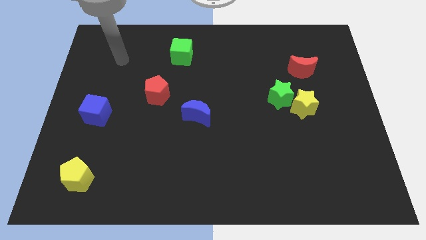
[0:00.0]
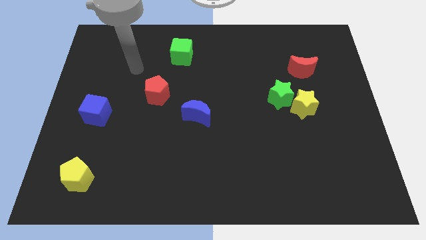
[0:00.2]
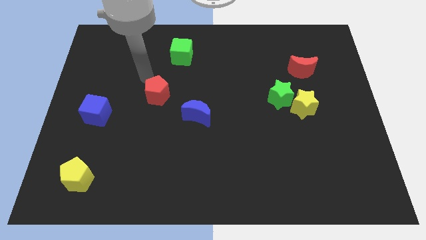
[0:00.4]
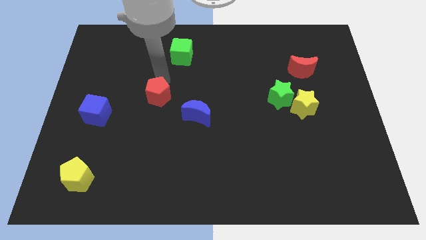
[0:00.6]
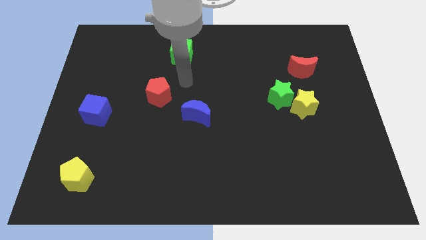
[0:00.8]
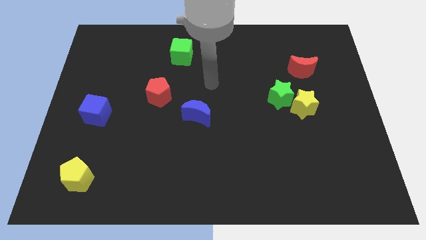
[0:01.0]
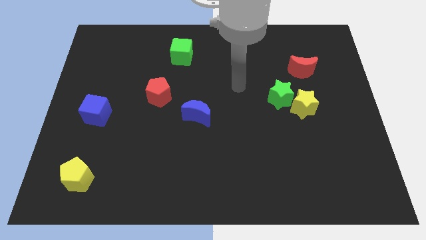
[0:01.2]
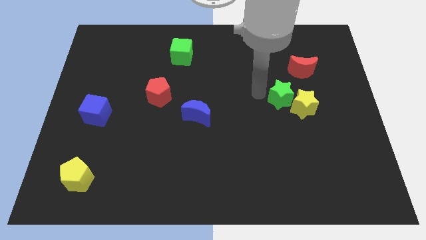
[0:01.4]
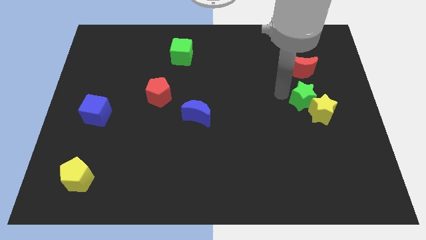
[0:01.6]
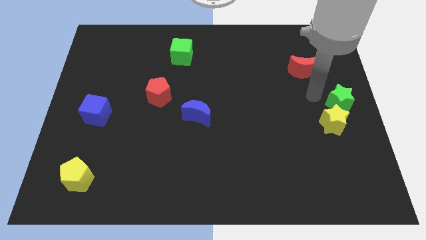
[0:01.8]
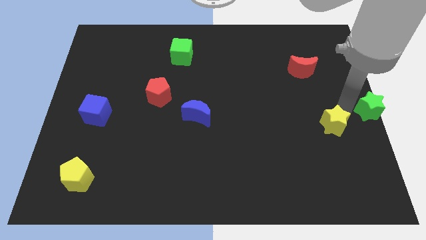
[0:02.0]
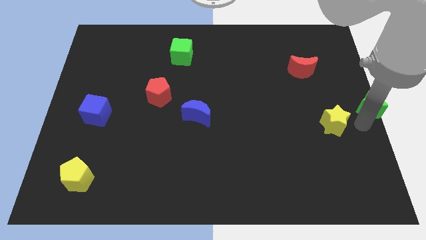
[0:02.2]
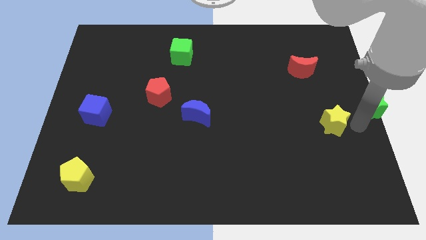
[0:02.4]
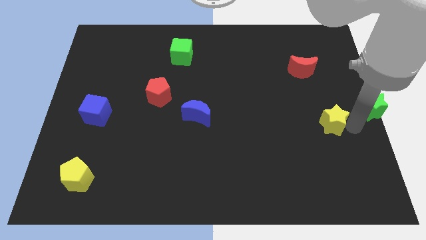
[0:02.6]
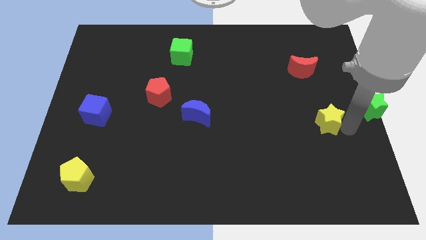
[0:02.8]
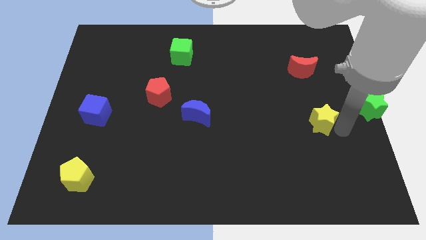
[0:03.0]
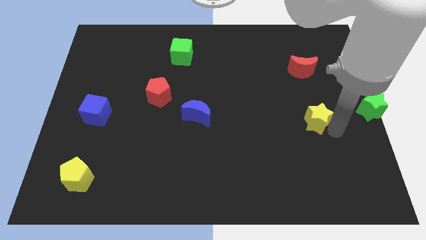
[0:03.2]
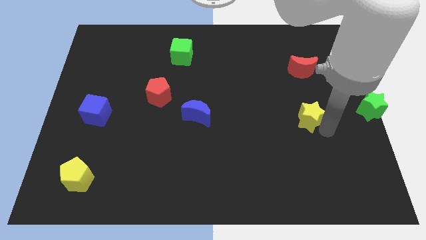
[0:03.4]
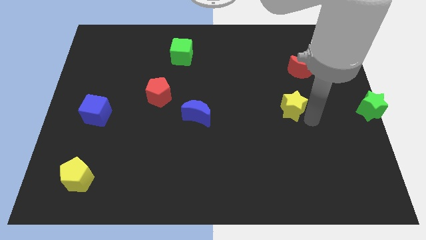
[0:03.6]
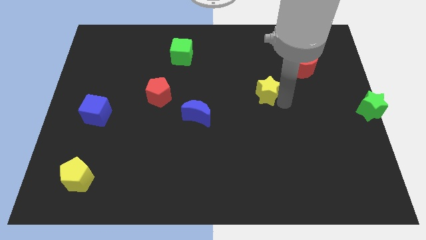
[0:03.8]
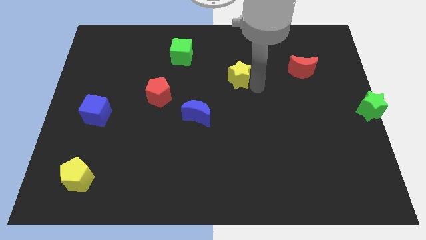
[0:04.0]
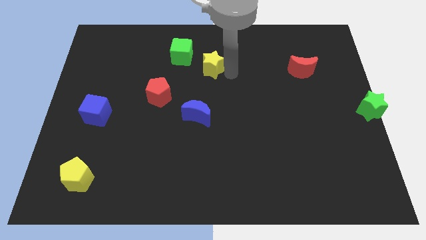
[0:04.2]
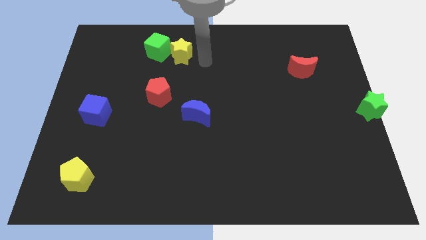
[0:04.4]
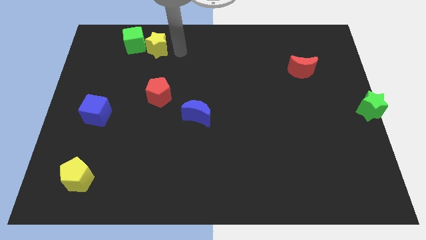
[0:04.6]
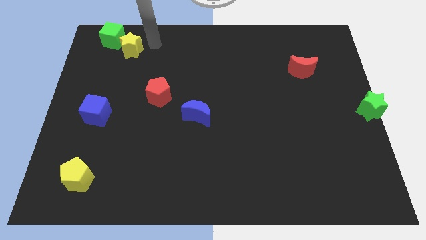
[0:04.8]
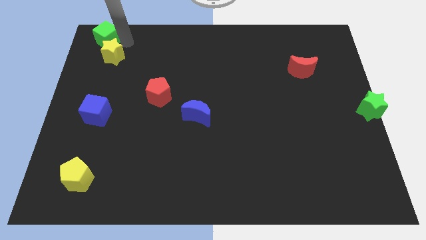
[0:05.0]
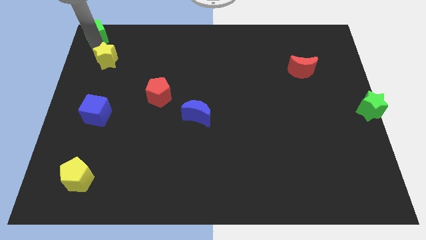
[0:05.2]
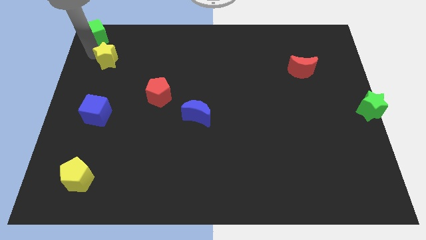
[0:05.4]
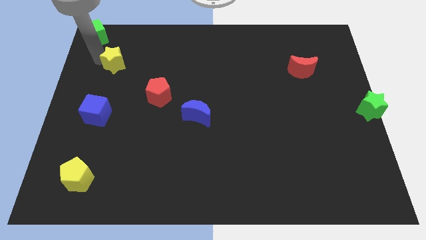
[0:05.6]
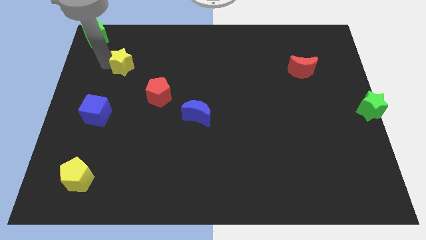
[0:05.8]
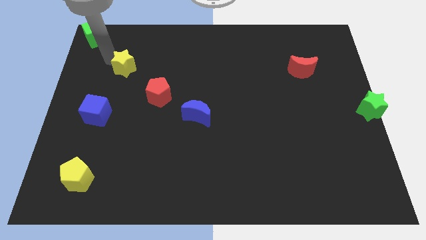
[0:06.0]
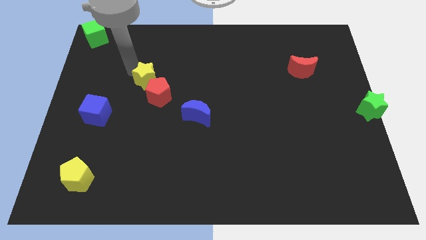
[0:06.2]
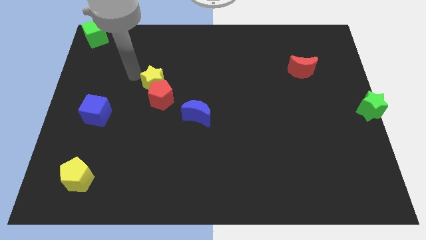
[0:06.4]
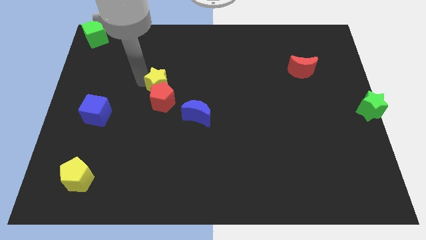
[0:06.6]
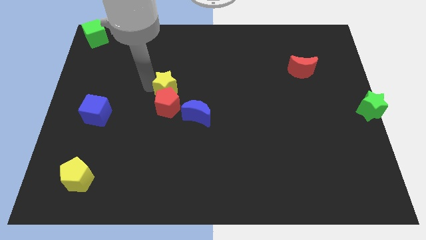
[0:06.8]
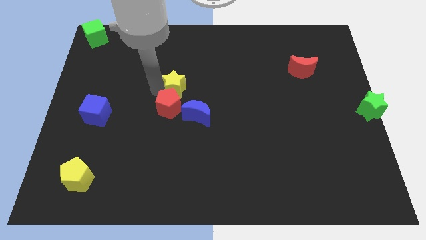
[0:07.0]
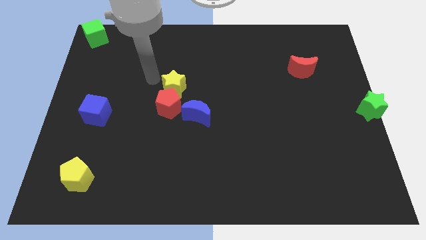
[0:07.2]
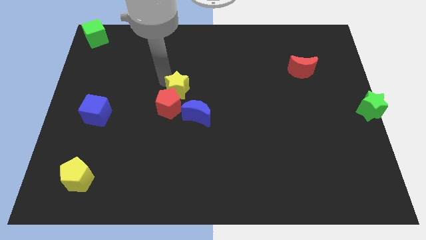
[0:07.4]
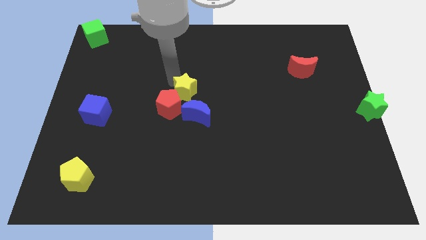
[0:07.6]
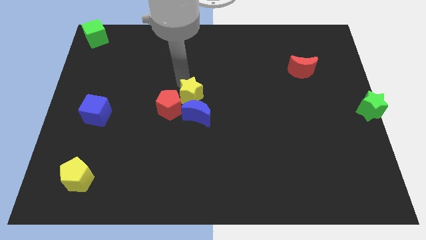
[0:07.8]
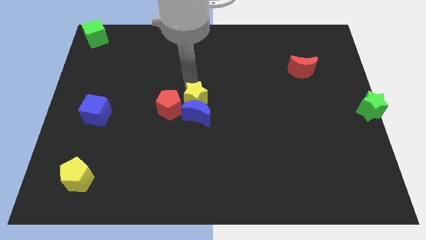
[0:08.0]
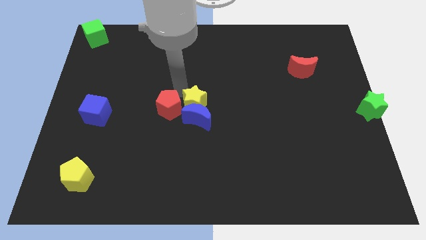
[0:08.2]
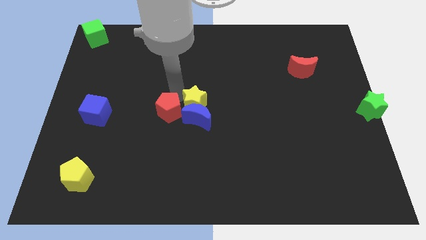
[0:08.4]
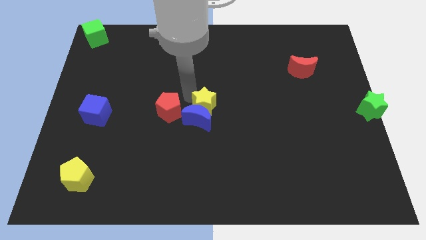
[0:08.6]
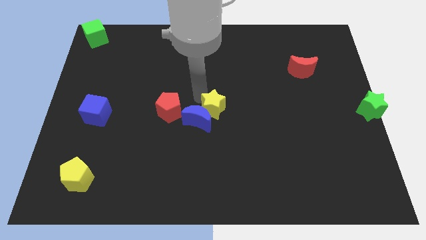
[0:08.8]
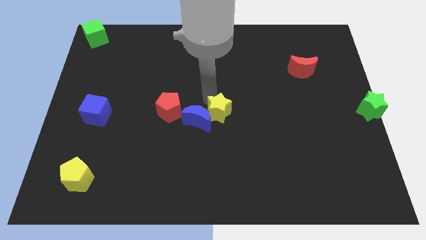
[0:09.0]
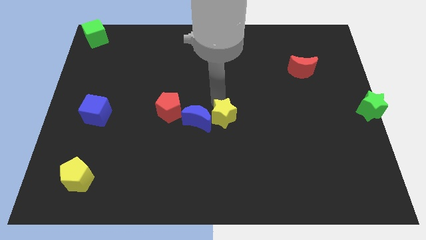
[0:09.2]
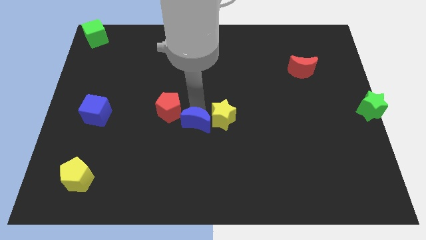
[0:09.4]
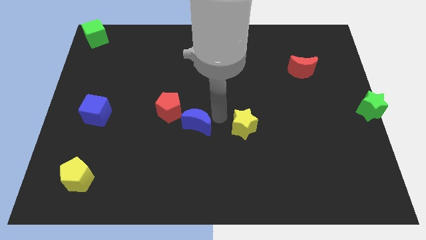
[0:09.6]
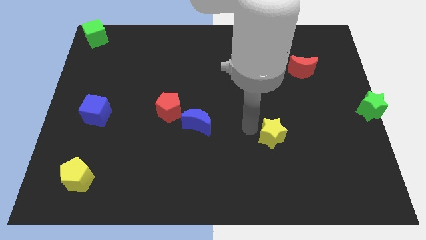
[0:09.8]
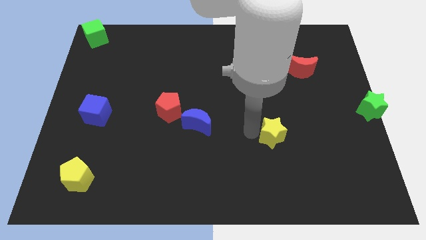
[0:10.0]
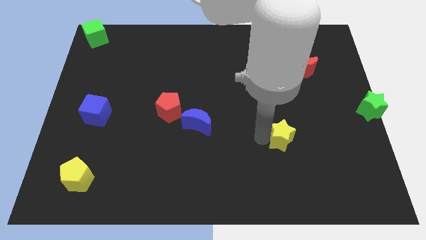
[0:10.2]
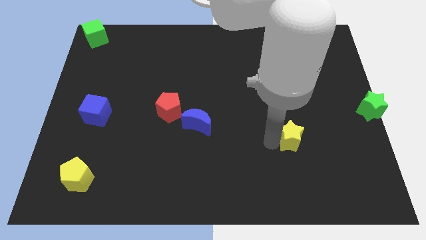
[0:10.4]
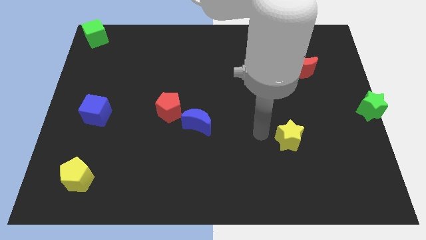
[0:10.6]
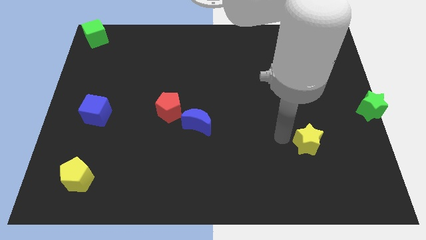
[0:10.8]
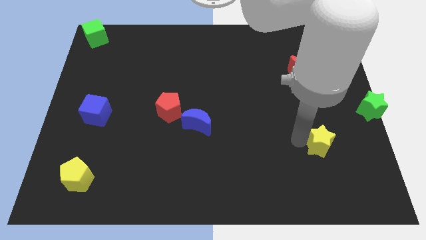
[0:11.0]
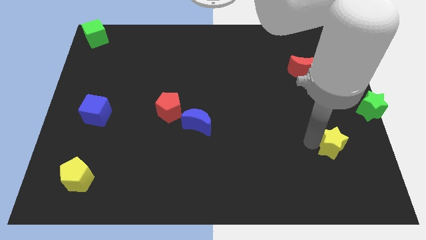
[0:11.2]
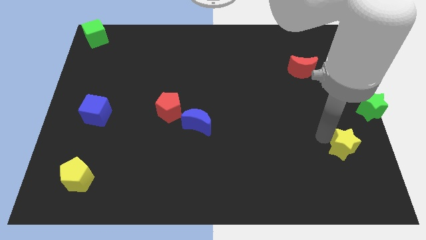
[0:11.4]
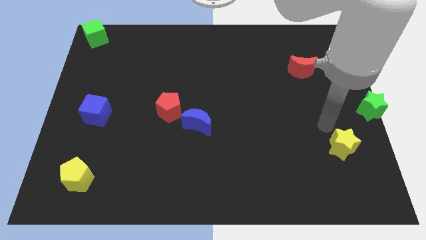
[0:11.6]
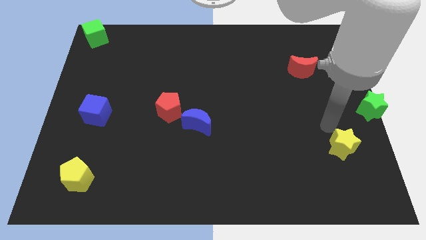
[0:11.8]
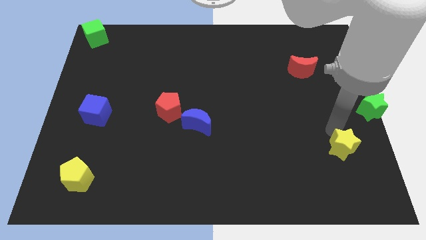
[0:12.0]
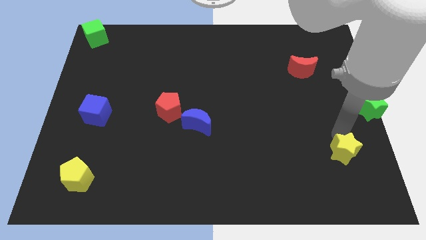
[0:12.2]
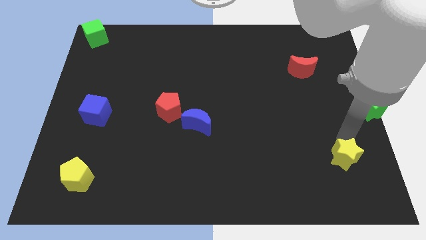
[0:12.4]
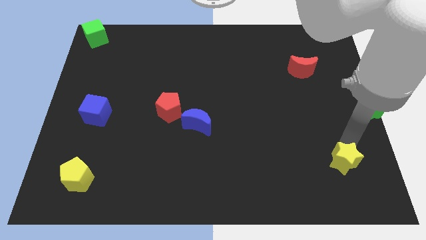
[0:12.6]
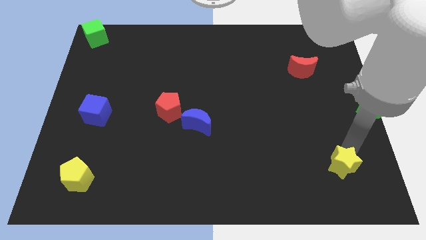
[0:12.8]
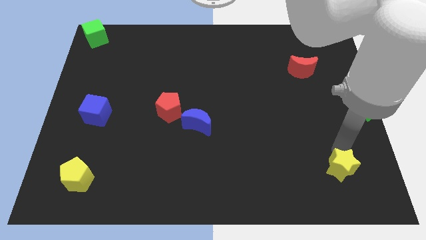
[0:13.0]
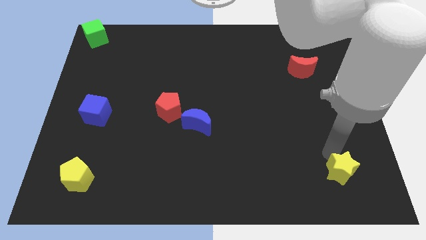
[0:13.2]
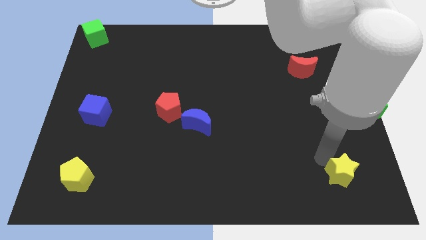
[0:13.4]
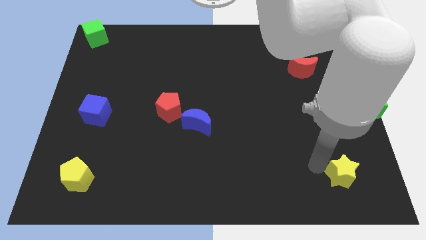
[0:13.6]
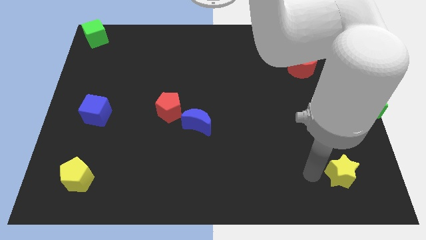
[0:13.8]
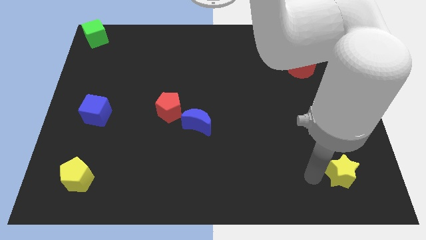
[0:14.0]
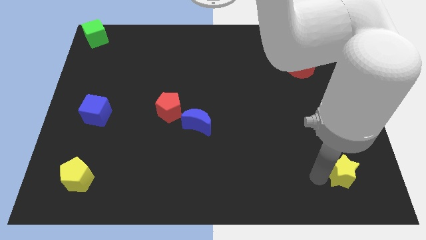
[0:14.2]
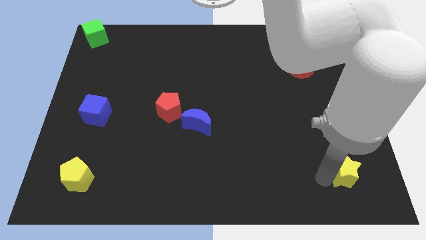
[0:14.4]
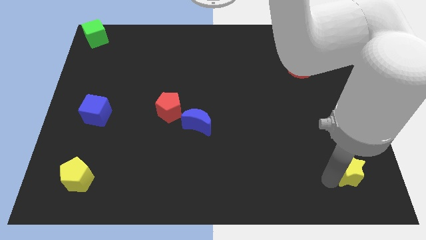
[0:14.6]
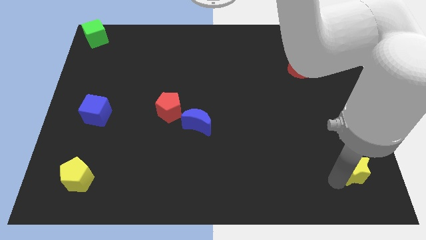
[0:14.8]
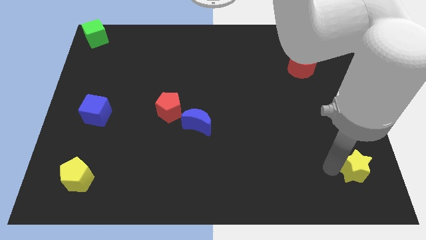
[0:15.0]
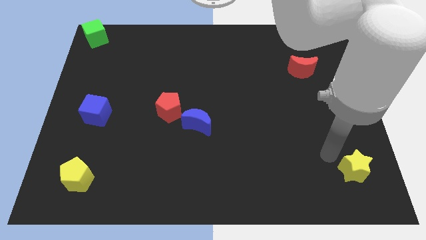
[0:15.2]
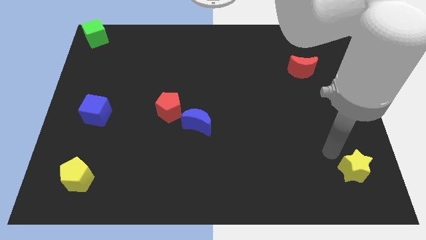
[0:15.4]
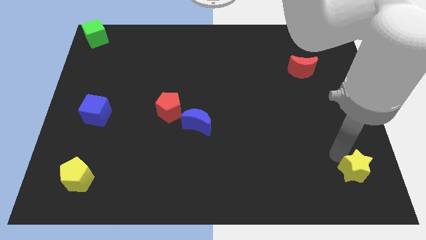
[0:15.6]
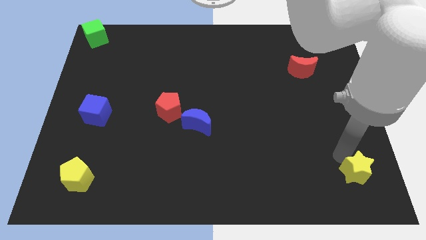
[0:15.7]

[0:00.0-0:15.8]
push the yellow star to the bottom right corner
